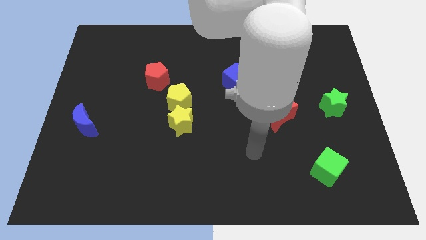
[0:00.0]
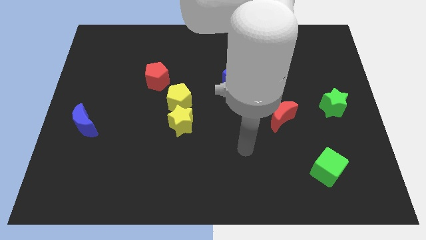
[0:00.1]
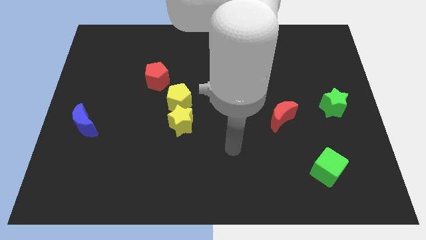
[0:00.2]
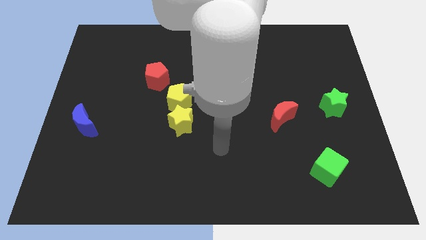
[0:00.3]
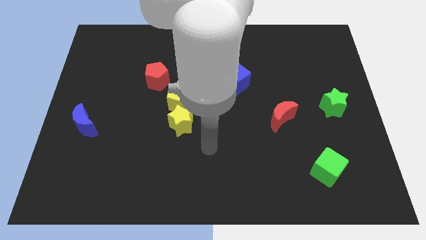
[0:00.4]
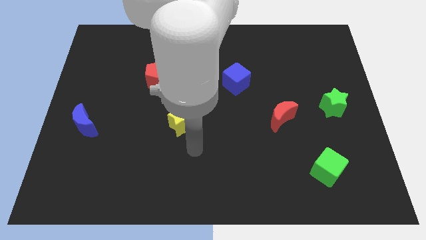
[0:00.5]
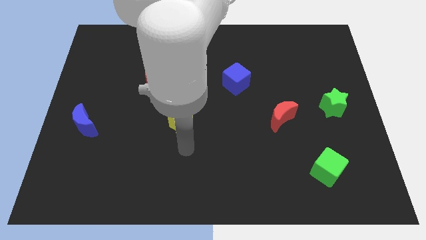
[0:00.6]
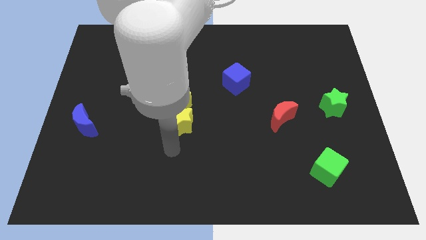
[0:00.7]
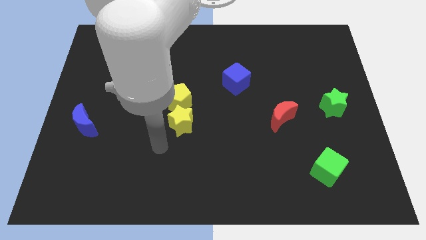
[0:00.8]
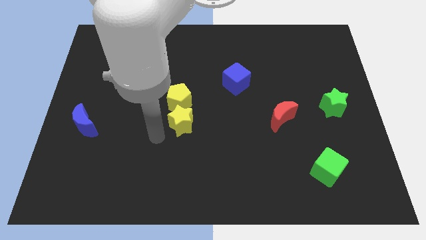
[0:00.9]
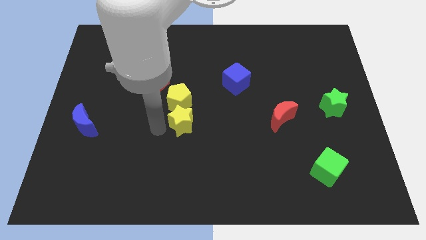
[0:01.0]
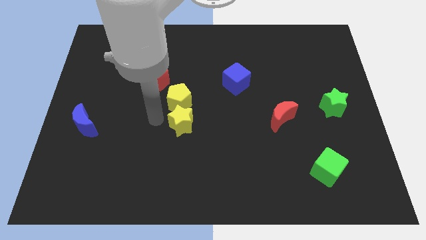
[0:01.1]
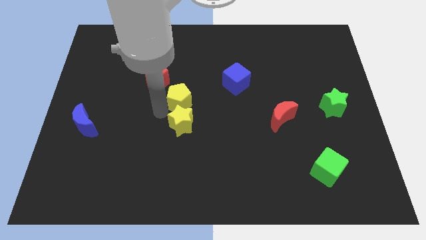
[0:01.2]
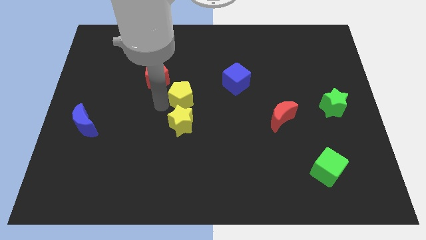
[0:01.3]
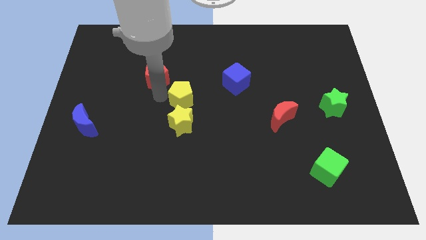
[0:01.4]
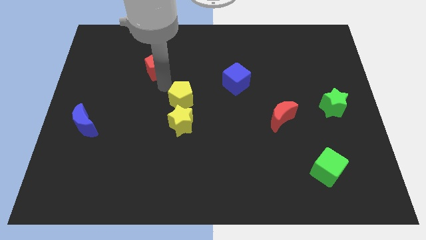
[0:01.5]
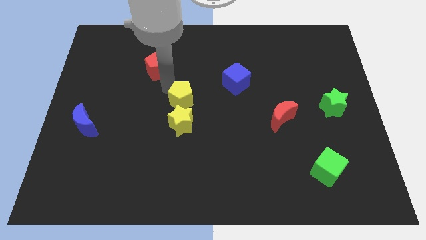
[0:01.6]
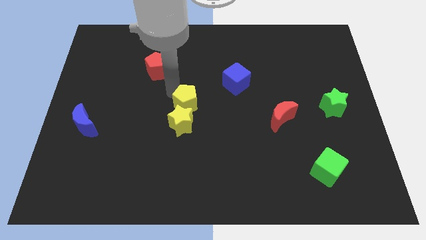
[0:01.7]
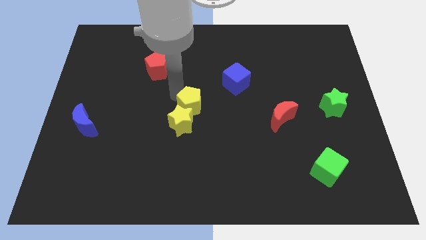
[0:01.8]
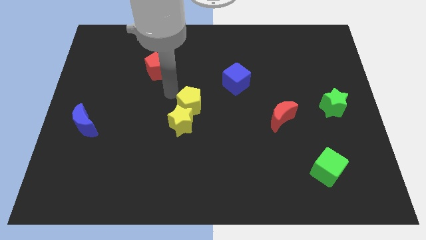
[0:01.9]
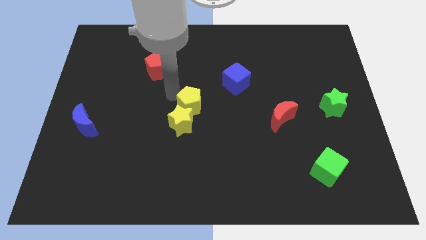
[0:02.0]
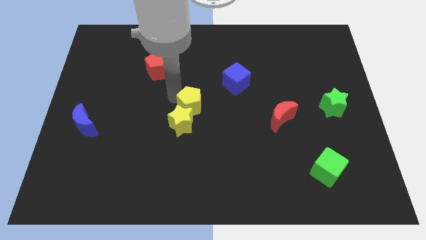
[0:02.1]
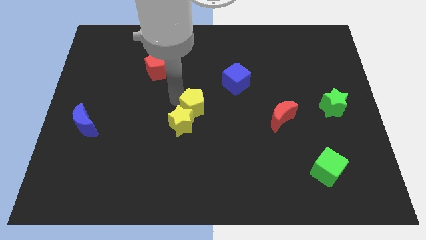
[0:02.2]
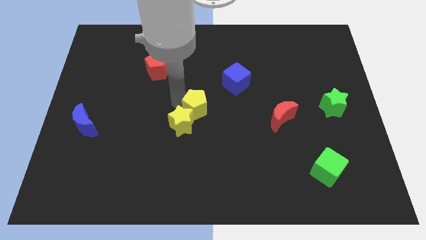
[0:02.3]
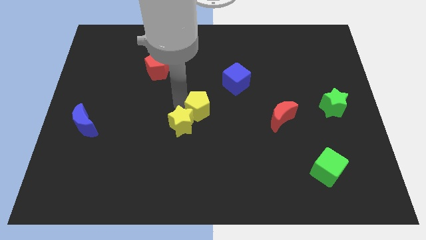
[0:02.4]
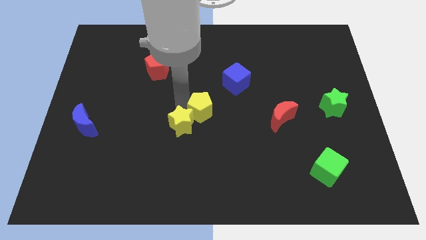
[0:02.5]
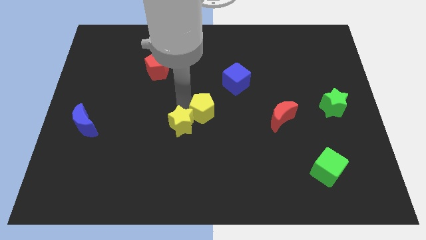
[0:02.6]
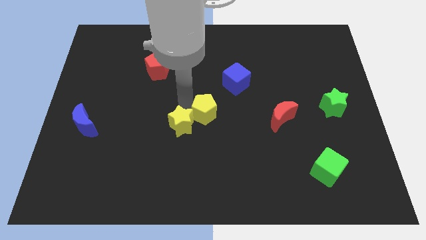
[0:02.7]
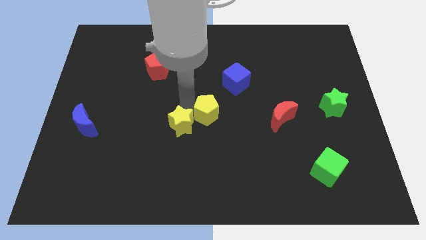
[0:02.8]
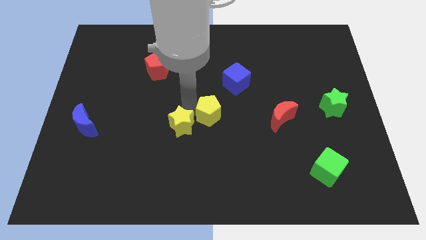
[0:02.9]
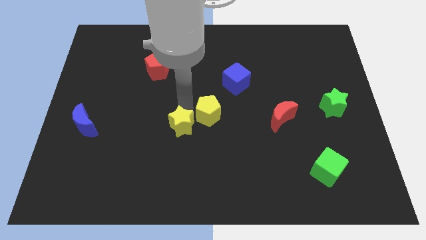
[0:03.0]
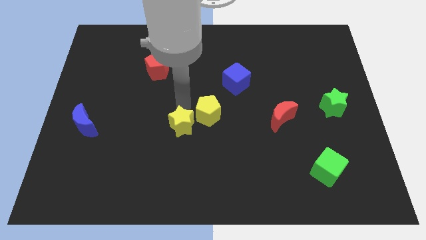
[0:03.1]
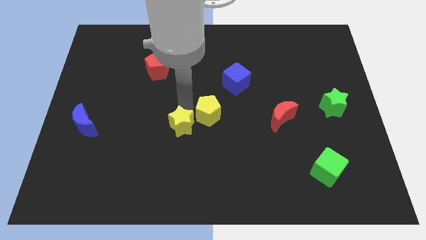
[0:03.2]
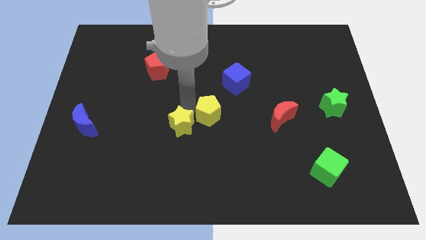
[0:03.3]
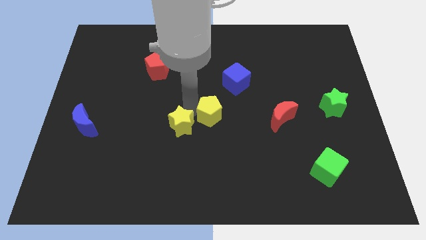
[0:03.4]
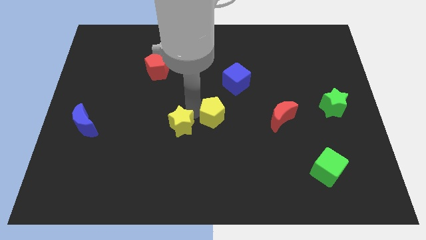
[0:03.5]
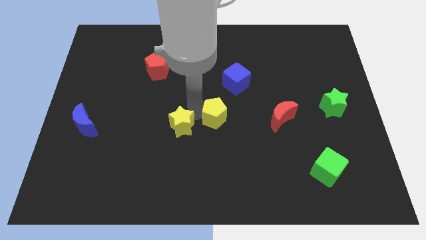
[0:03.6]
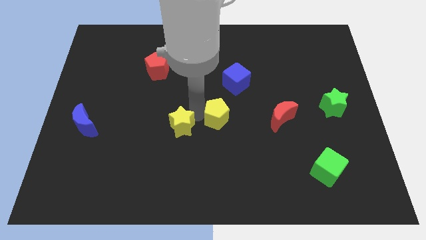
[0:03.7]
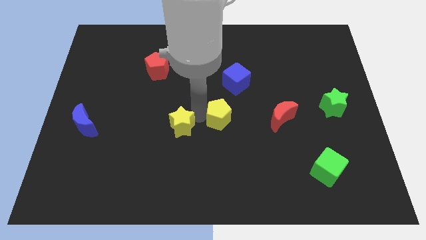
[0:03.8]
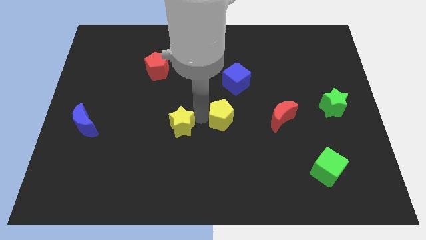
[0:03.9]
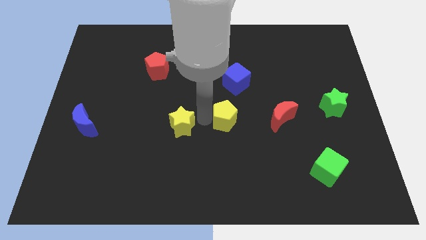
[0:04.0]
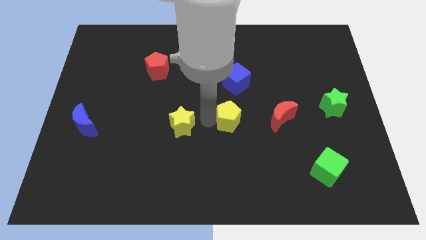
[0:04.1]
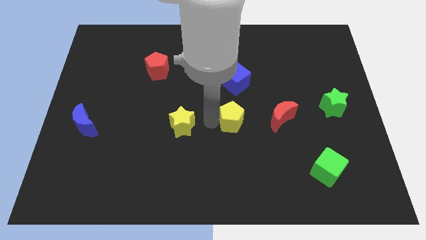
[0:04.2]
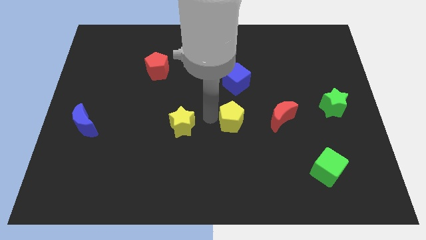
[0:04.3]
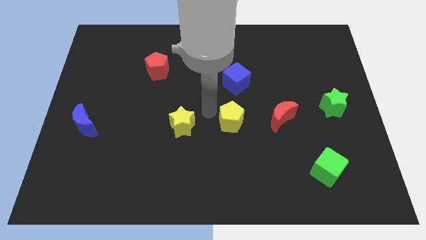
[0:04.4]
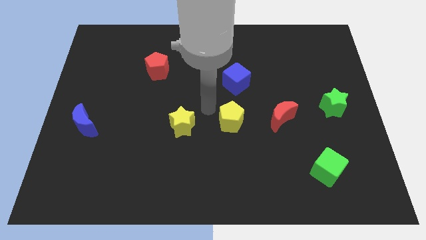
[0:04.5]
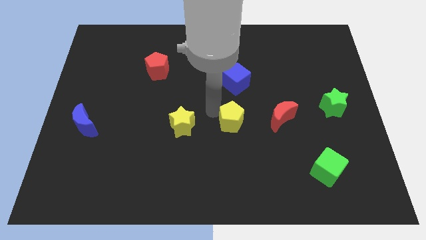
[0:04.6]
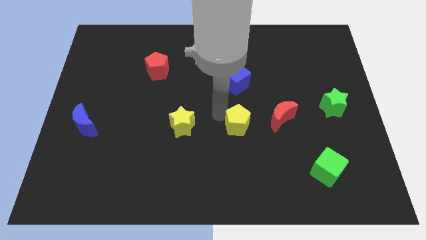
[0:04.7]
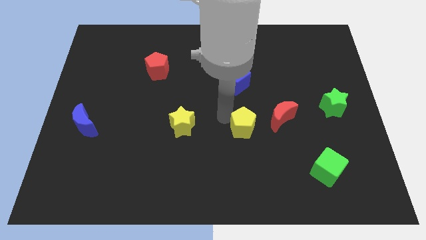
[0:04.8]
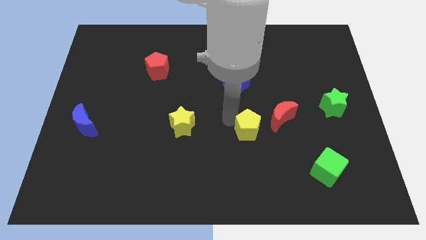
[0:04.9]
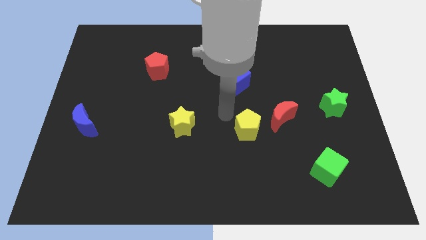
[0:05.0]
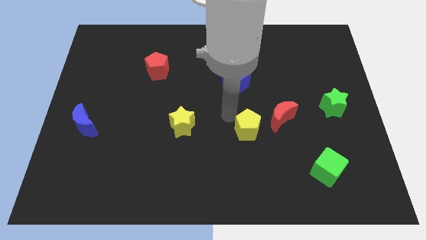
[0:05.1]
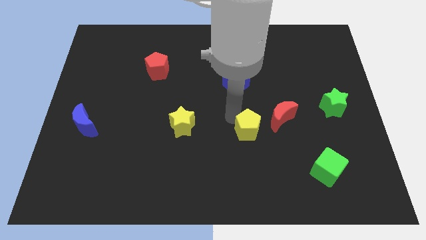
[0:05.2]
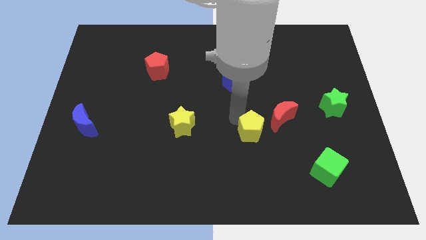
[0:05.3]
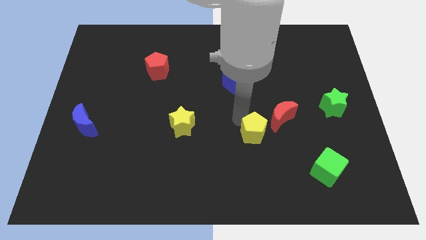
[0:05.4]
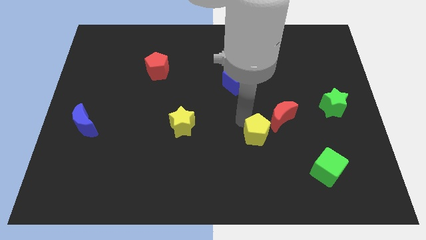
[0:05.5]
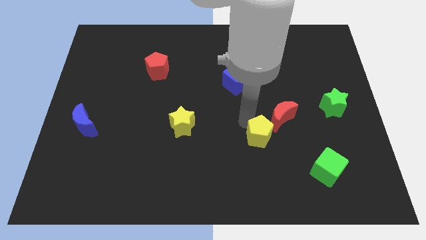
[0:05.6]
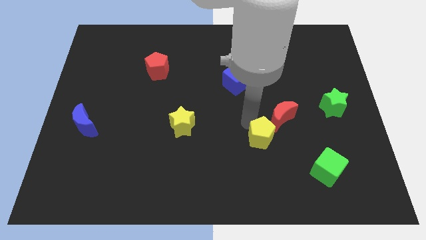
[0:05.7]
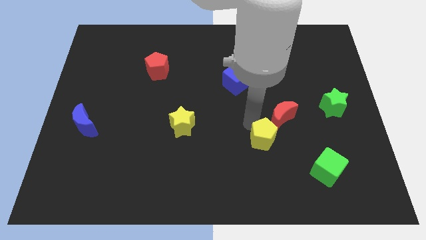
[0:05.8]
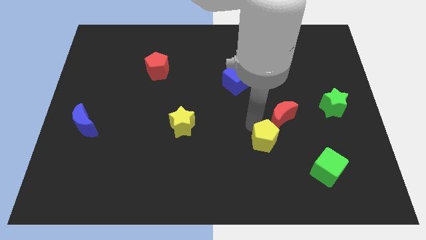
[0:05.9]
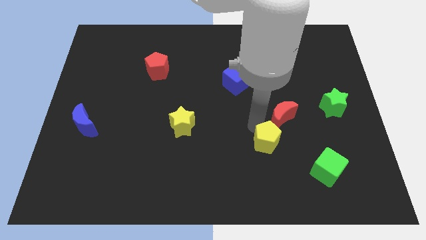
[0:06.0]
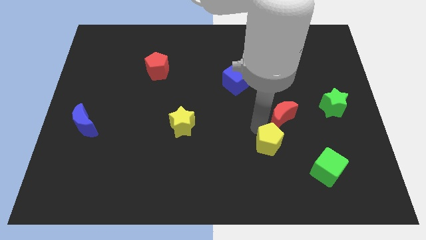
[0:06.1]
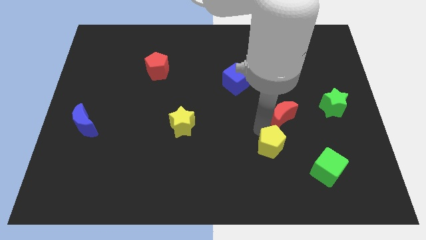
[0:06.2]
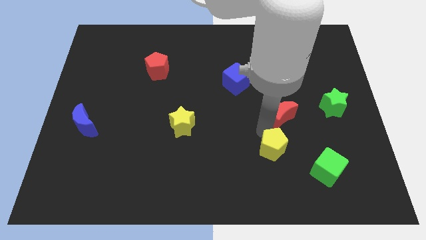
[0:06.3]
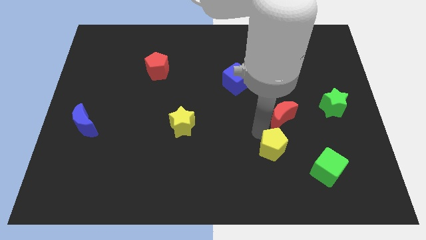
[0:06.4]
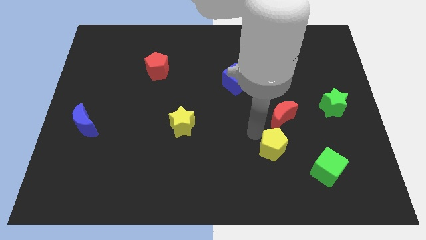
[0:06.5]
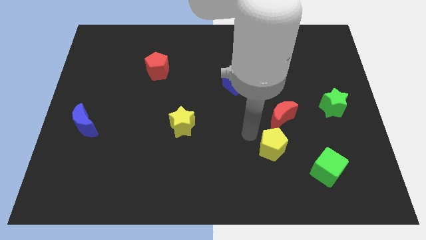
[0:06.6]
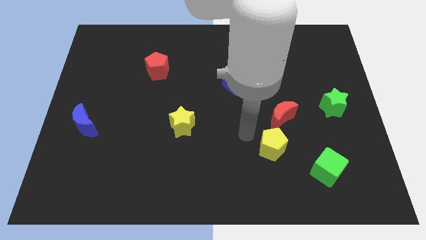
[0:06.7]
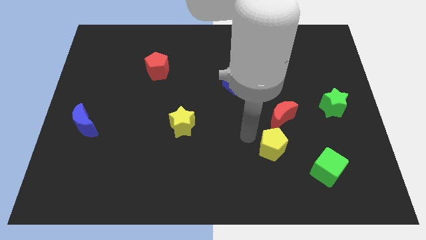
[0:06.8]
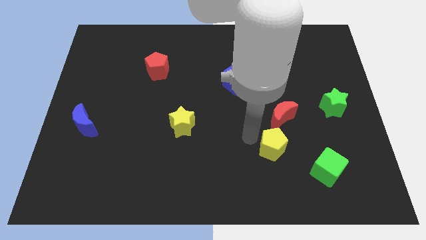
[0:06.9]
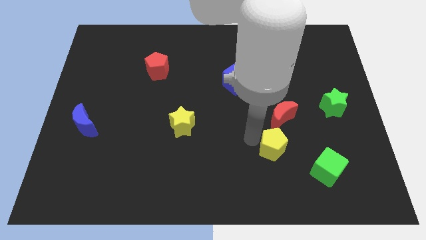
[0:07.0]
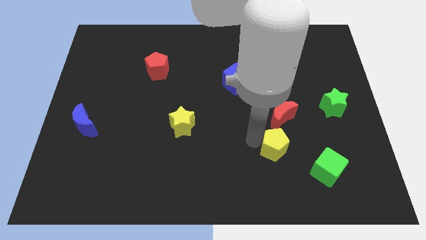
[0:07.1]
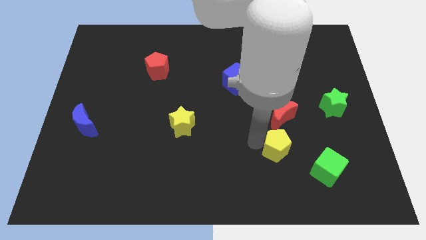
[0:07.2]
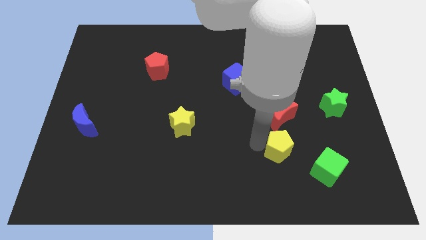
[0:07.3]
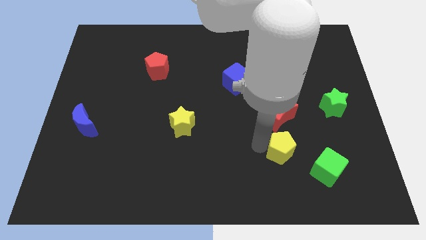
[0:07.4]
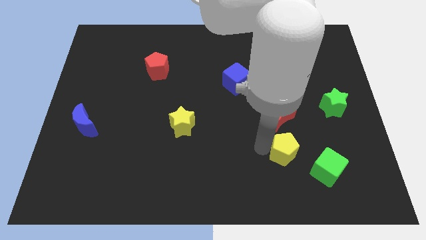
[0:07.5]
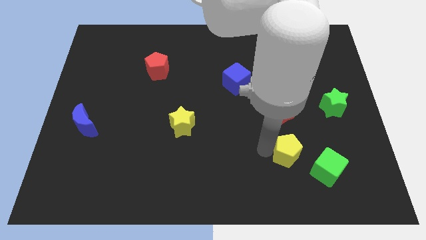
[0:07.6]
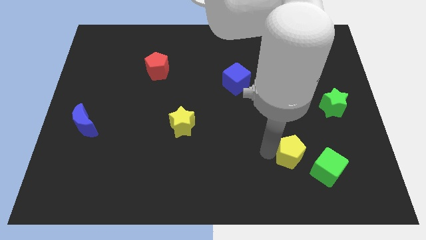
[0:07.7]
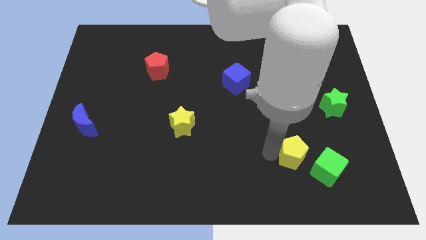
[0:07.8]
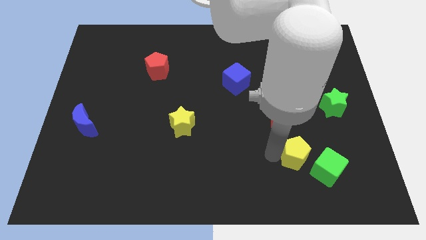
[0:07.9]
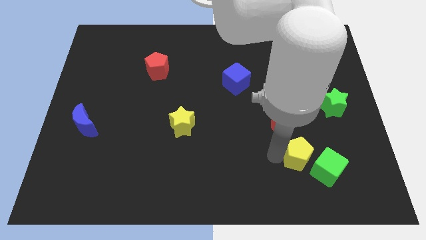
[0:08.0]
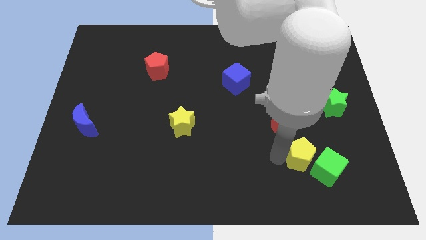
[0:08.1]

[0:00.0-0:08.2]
move the yellow pentagon towards the green cube

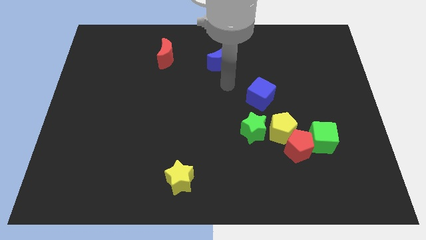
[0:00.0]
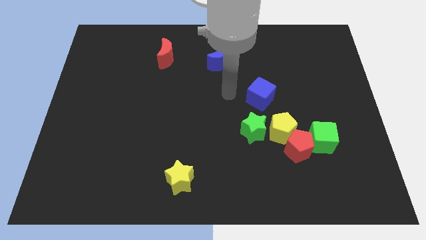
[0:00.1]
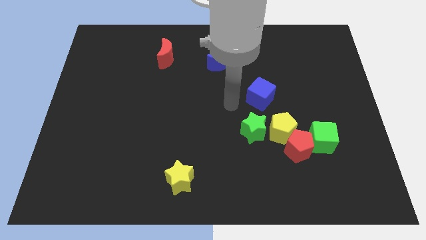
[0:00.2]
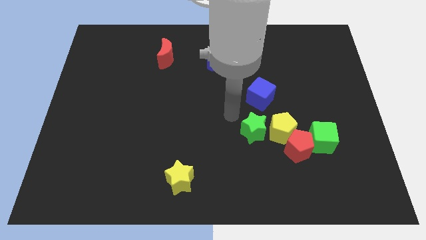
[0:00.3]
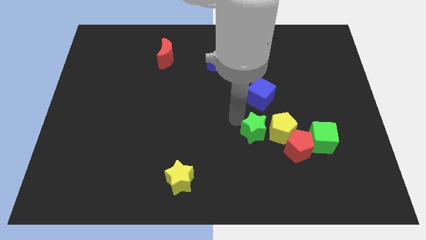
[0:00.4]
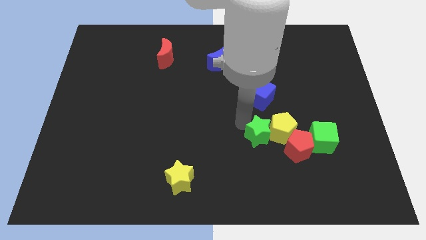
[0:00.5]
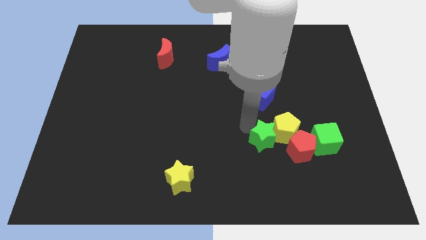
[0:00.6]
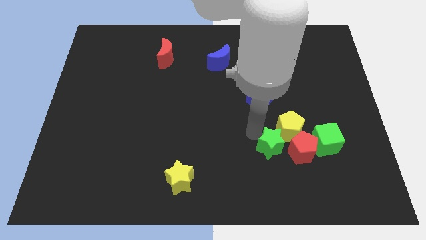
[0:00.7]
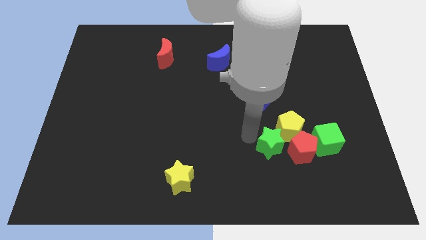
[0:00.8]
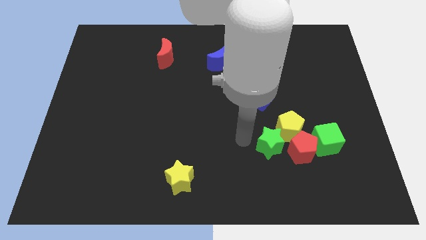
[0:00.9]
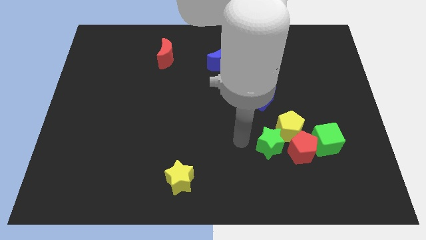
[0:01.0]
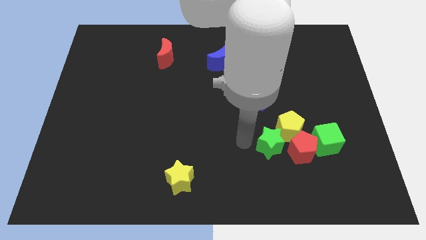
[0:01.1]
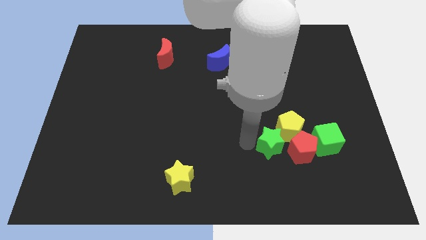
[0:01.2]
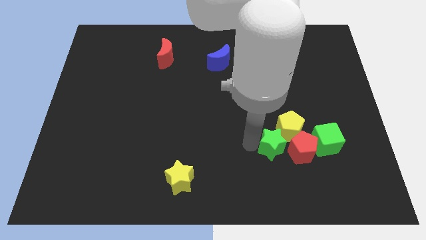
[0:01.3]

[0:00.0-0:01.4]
push the green star next to the red pentagon
